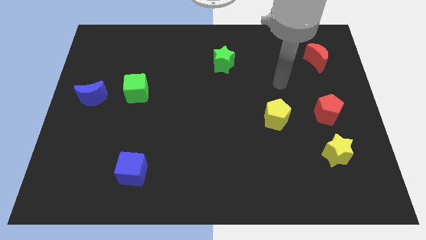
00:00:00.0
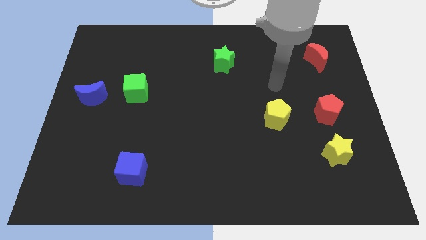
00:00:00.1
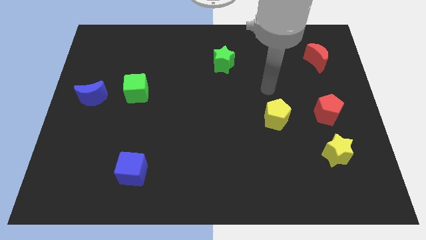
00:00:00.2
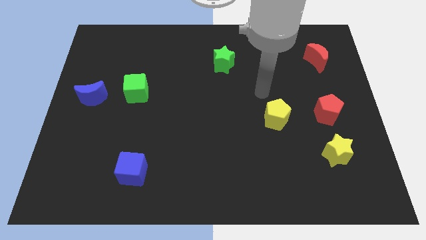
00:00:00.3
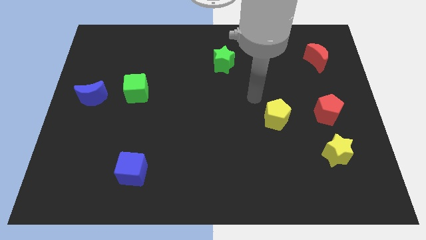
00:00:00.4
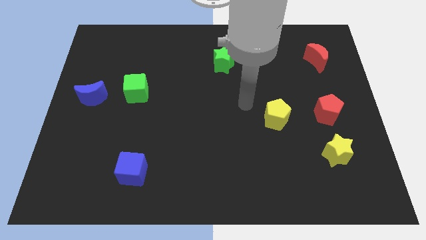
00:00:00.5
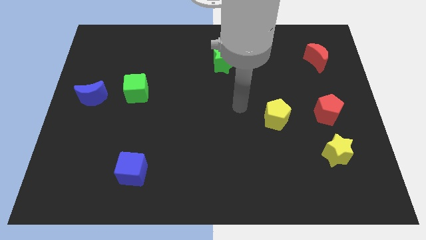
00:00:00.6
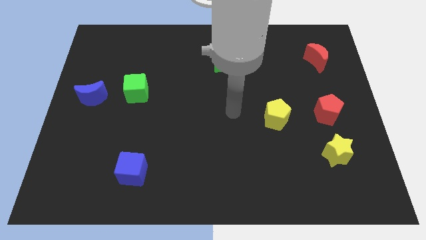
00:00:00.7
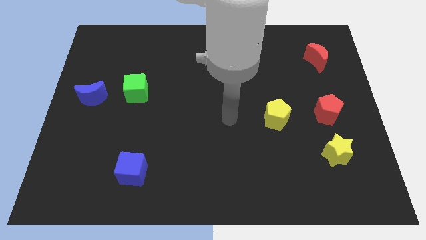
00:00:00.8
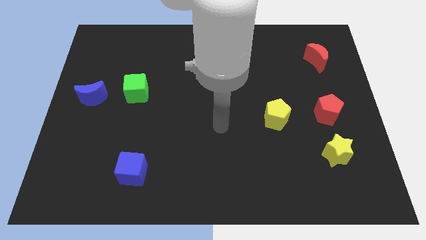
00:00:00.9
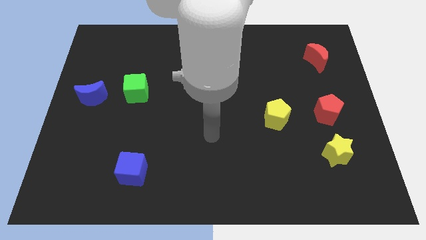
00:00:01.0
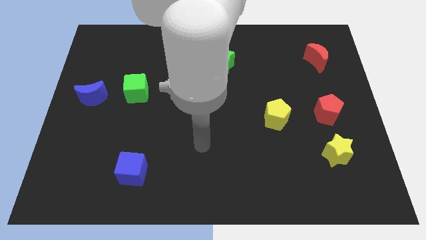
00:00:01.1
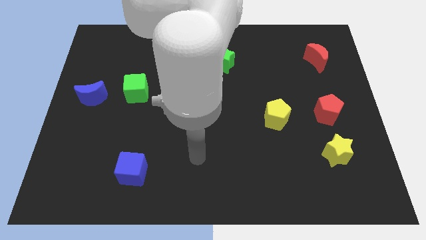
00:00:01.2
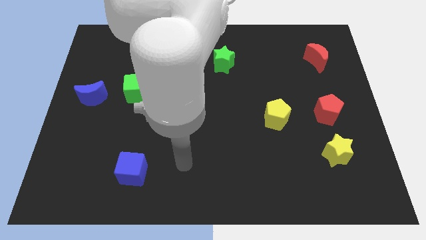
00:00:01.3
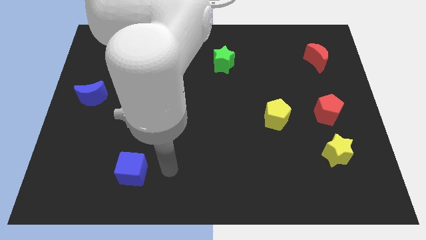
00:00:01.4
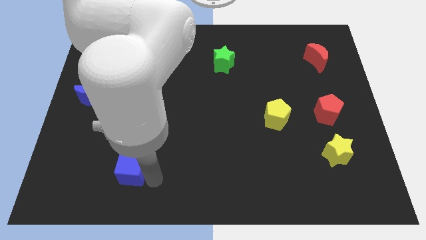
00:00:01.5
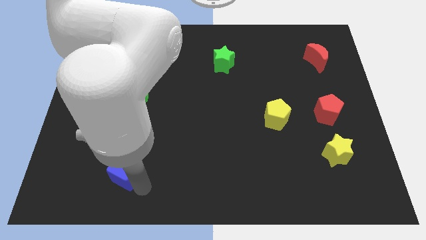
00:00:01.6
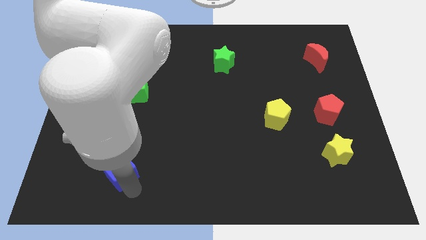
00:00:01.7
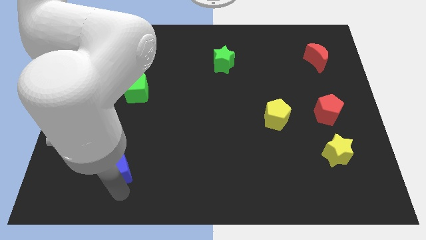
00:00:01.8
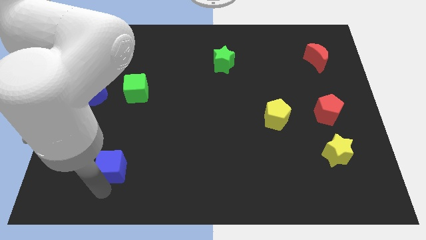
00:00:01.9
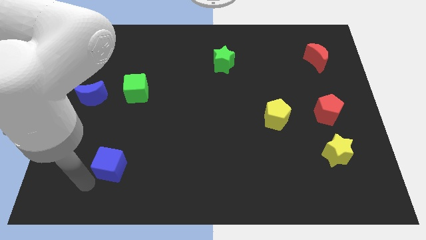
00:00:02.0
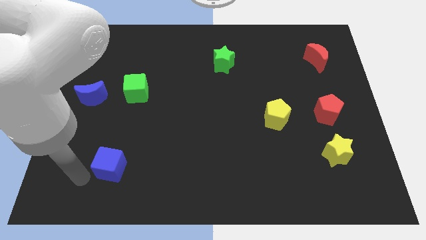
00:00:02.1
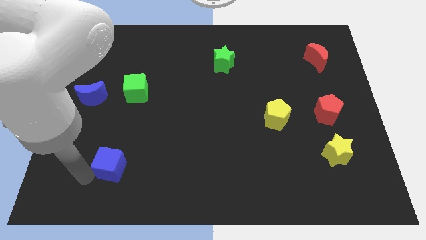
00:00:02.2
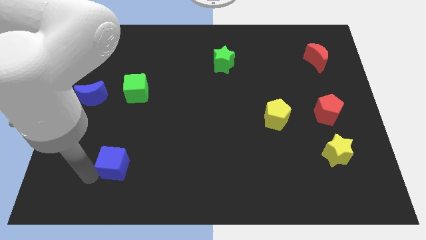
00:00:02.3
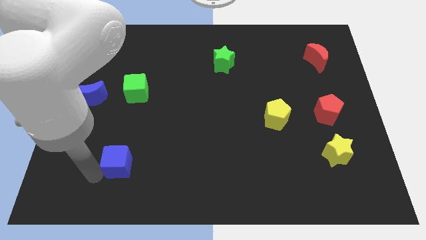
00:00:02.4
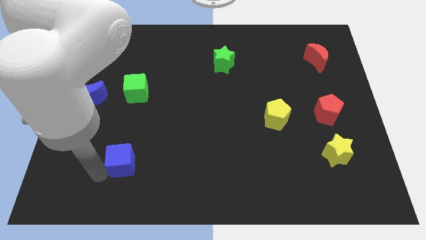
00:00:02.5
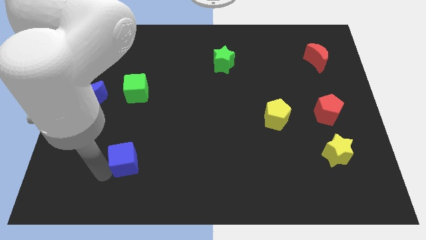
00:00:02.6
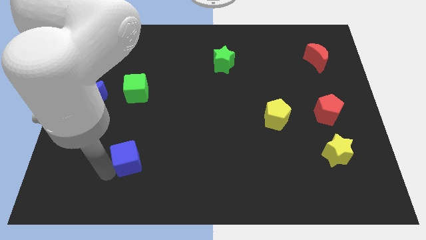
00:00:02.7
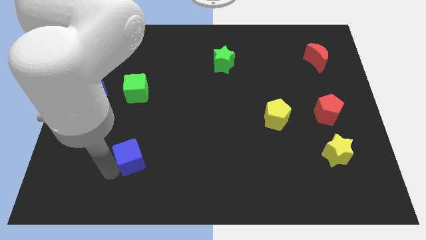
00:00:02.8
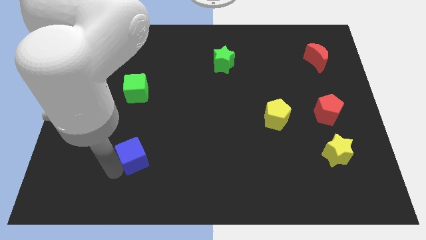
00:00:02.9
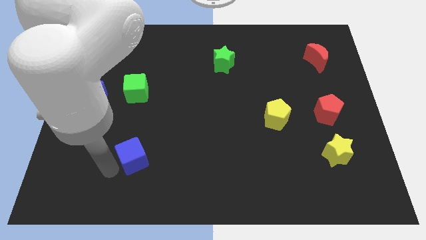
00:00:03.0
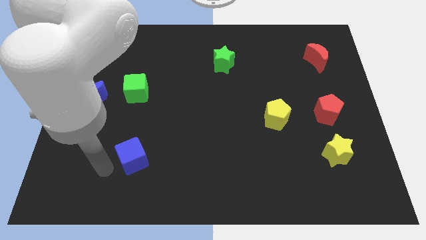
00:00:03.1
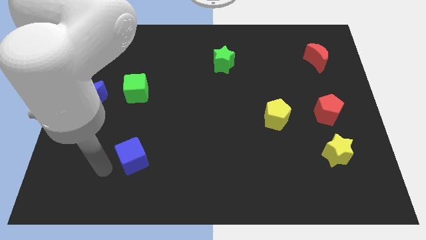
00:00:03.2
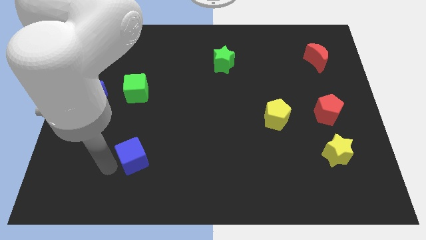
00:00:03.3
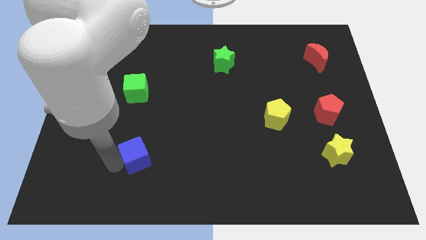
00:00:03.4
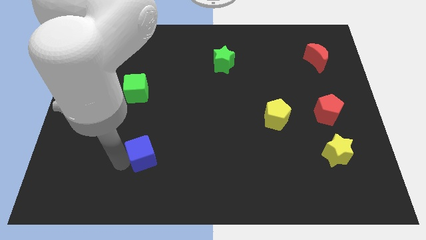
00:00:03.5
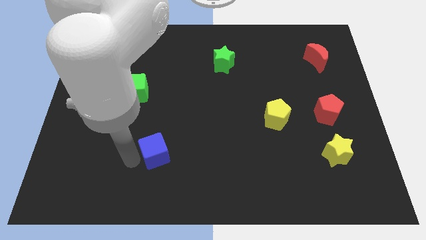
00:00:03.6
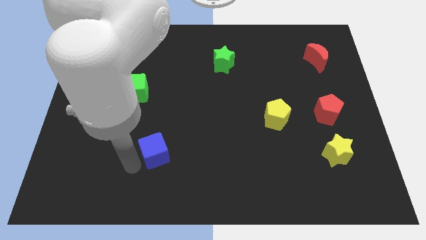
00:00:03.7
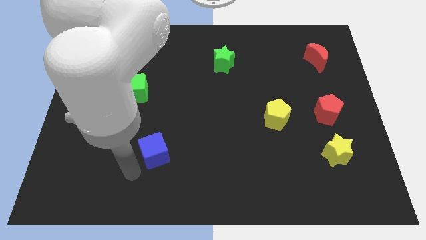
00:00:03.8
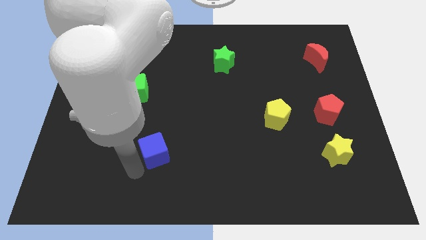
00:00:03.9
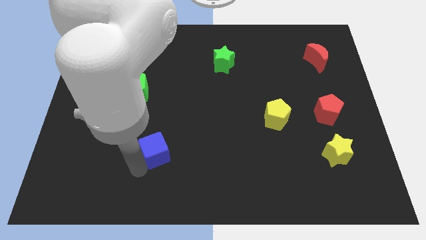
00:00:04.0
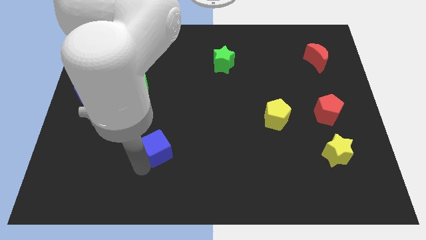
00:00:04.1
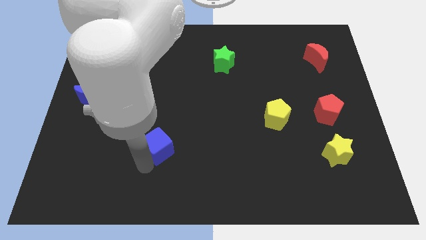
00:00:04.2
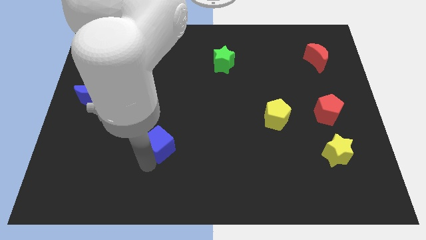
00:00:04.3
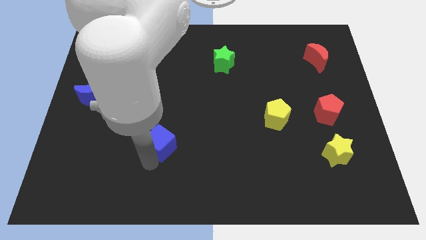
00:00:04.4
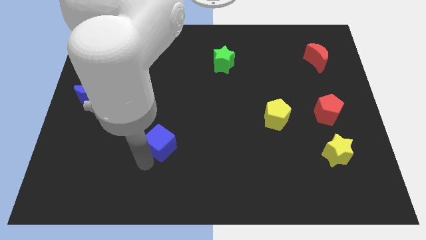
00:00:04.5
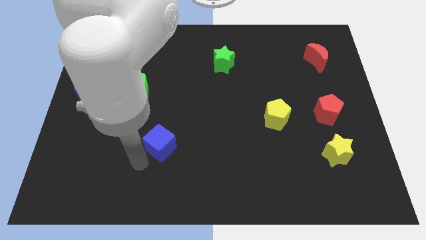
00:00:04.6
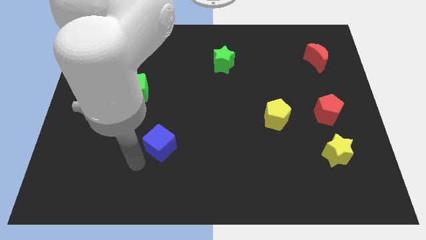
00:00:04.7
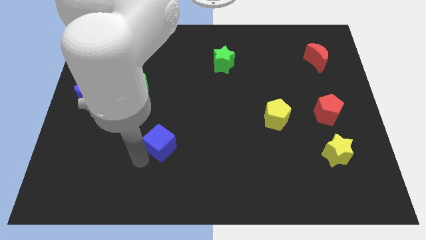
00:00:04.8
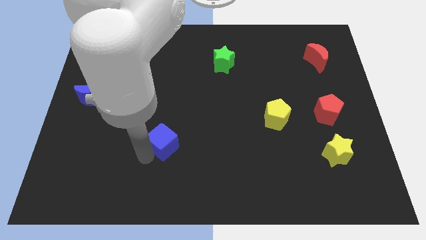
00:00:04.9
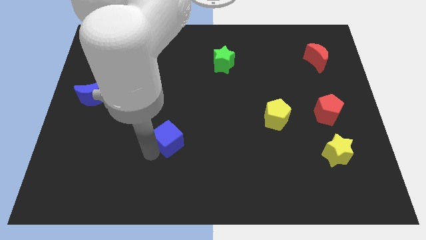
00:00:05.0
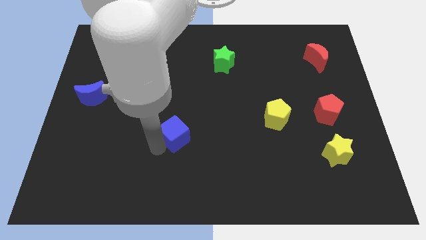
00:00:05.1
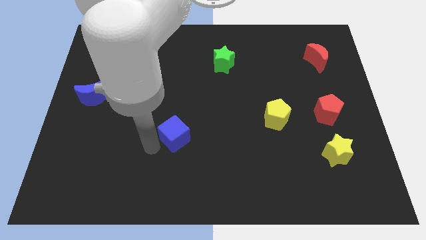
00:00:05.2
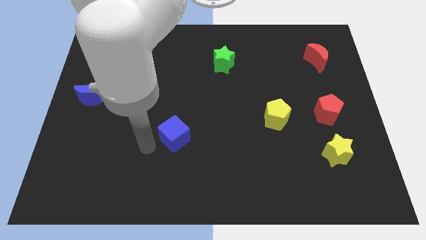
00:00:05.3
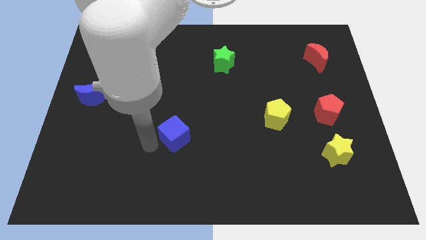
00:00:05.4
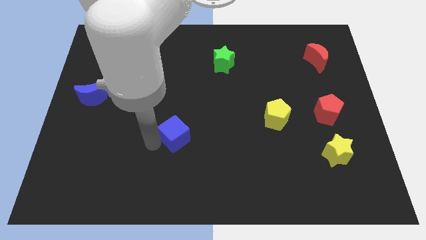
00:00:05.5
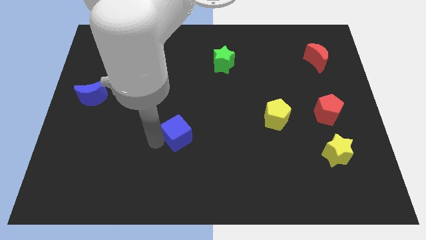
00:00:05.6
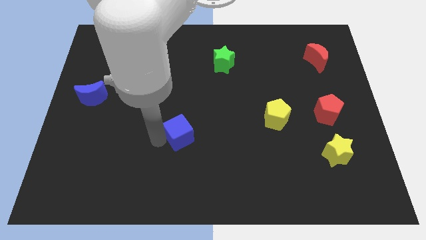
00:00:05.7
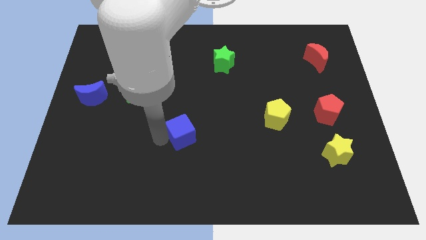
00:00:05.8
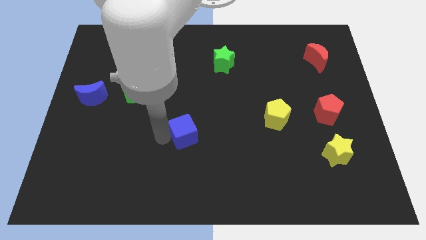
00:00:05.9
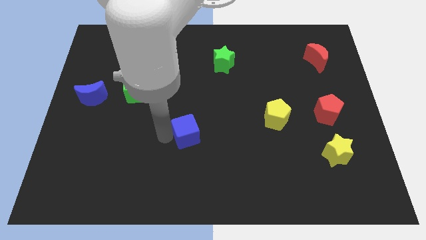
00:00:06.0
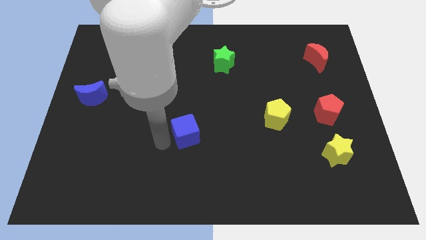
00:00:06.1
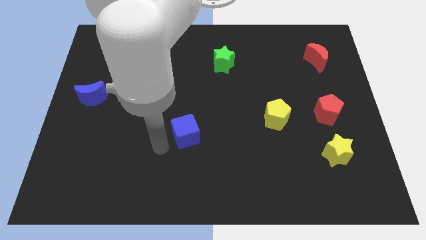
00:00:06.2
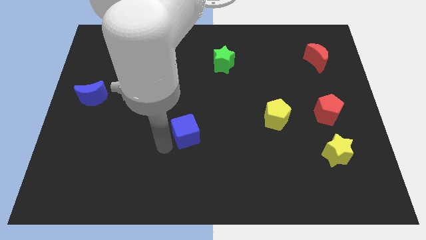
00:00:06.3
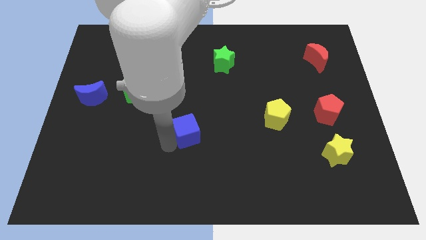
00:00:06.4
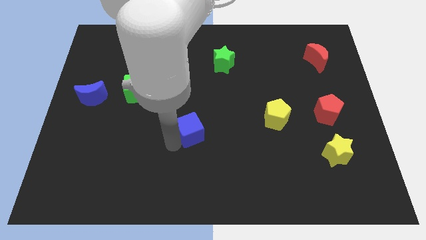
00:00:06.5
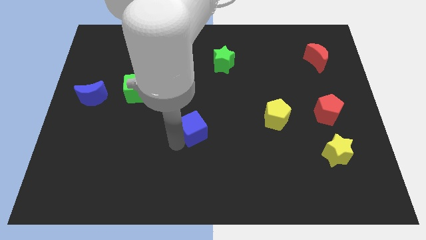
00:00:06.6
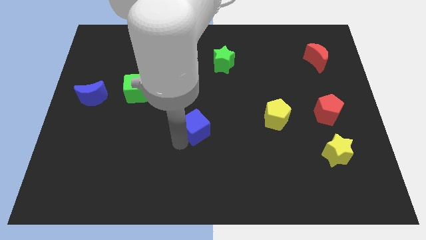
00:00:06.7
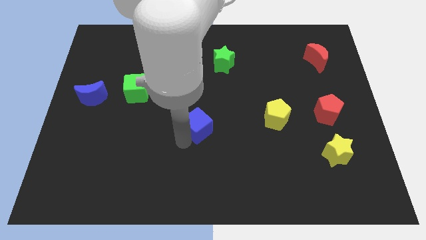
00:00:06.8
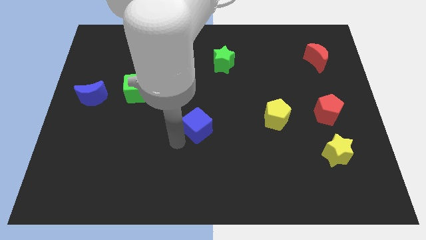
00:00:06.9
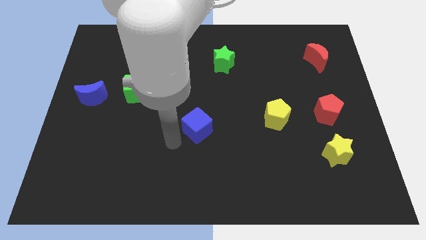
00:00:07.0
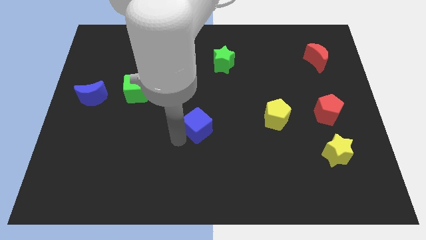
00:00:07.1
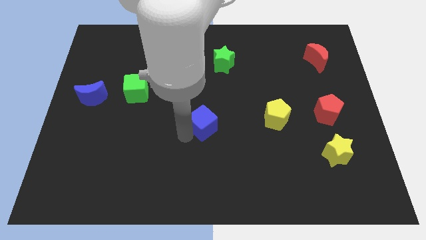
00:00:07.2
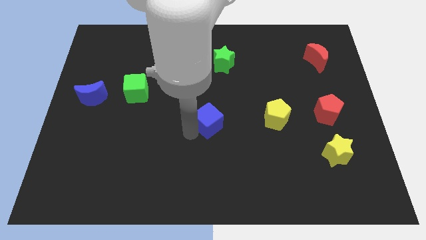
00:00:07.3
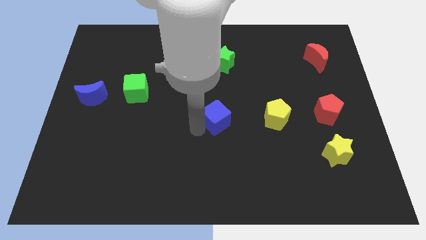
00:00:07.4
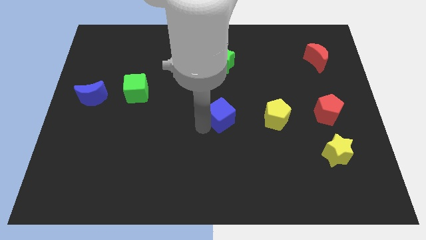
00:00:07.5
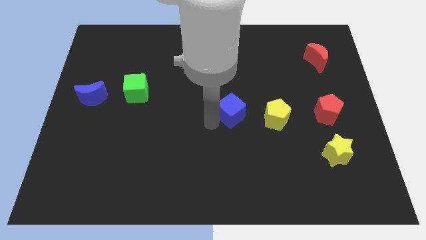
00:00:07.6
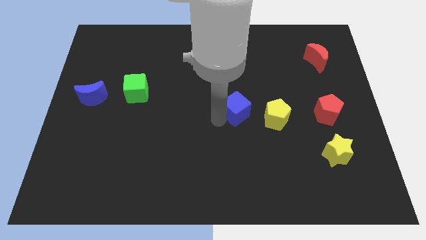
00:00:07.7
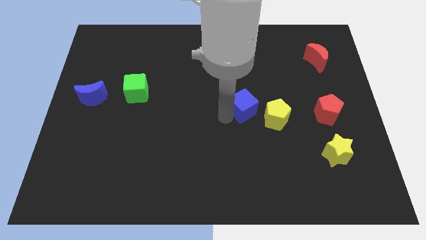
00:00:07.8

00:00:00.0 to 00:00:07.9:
move the blue cube to the top left side of the yellow pentagon
